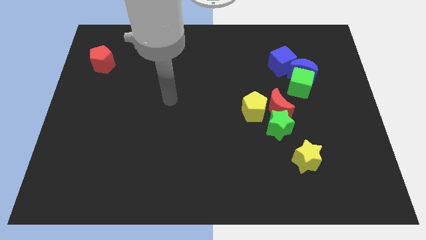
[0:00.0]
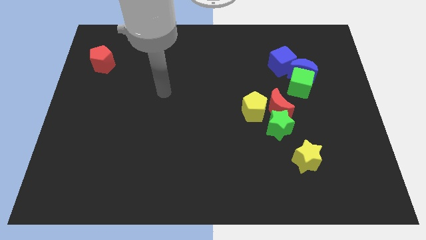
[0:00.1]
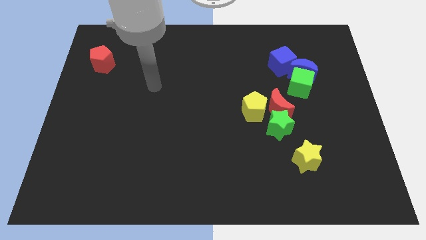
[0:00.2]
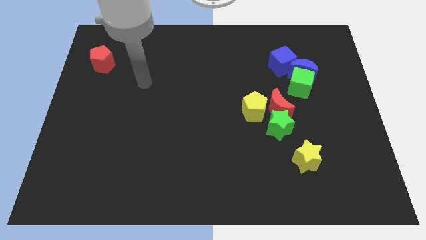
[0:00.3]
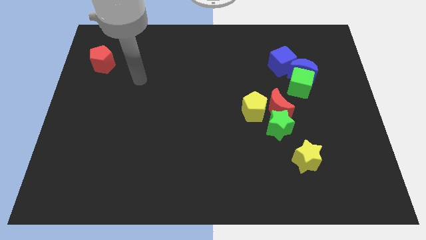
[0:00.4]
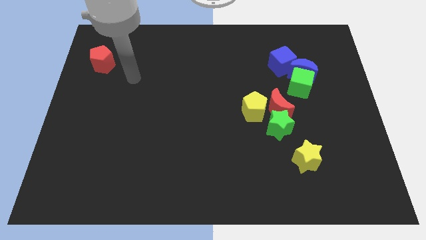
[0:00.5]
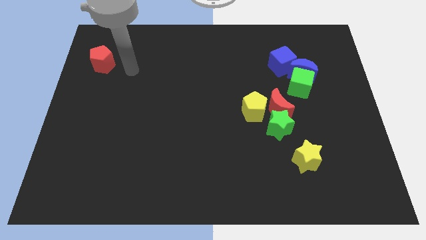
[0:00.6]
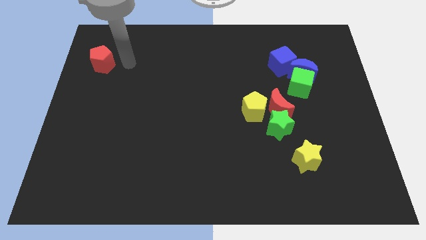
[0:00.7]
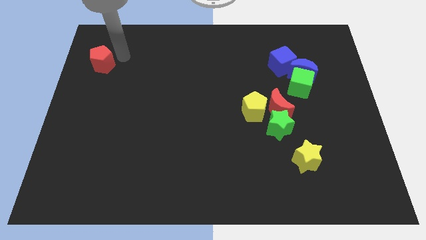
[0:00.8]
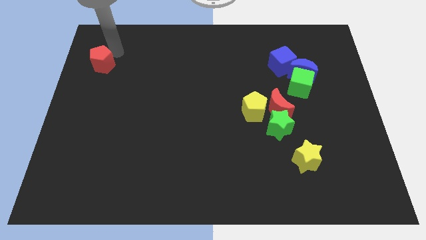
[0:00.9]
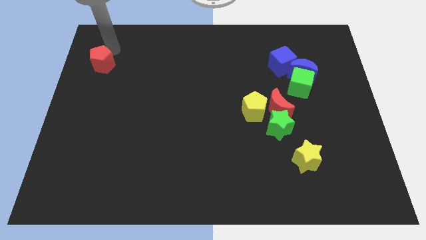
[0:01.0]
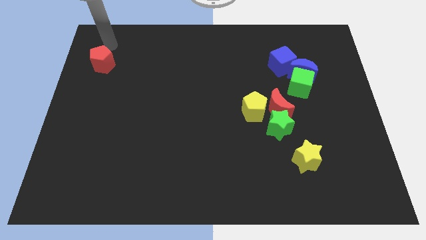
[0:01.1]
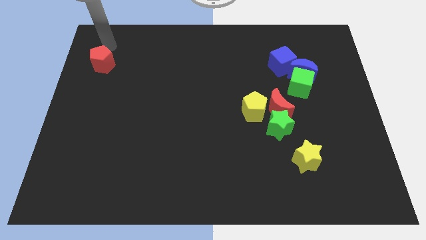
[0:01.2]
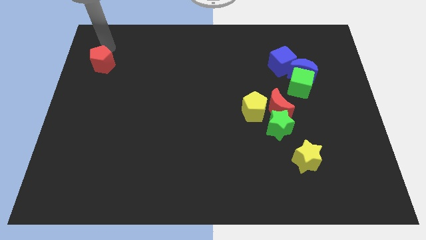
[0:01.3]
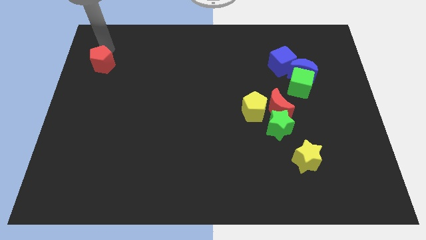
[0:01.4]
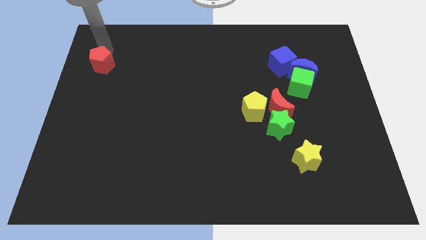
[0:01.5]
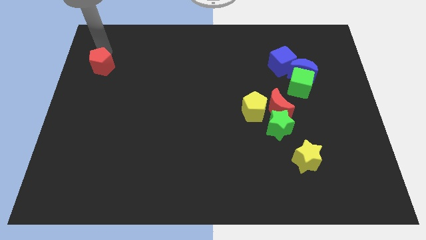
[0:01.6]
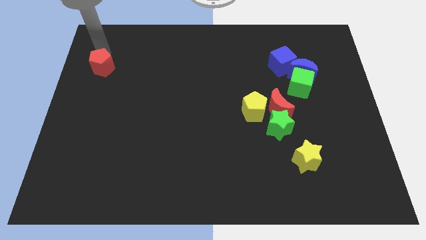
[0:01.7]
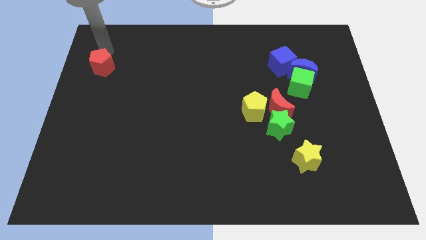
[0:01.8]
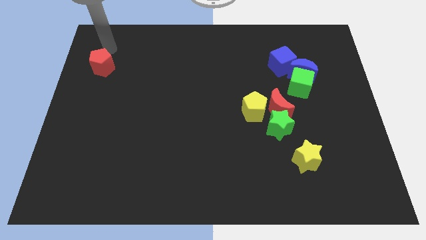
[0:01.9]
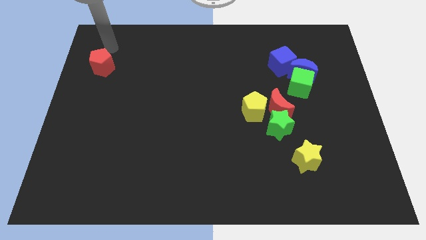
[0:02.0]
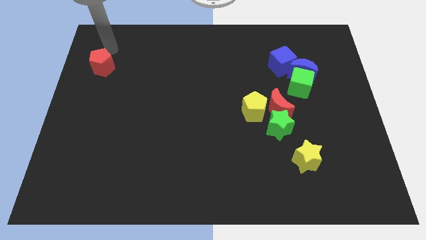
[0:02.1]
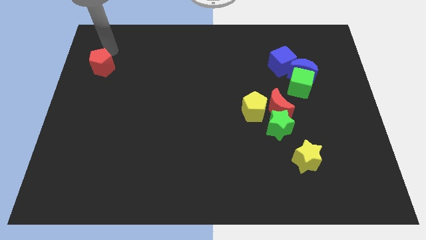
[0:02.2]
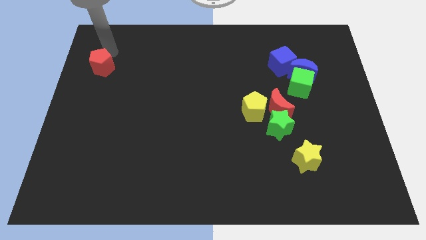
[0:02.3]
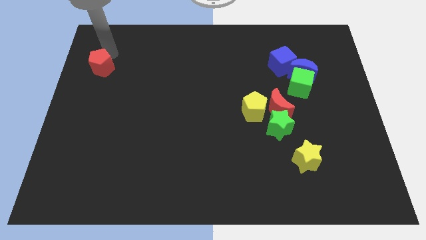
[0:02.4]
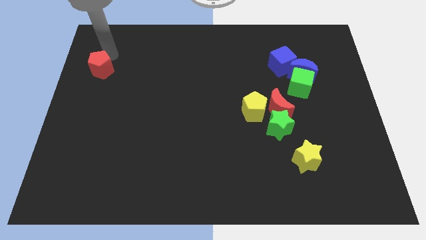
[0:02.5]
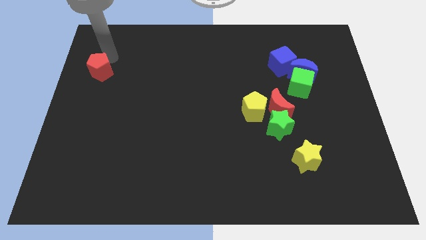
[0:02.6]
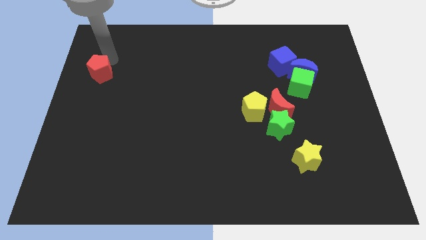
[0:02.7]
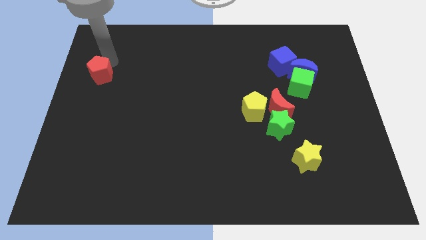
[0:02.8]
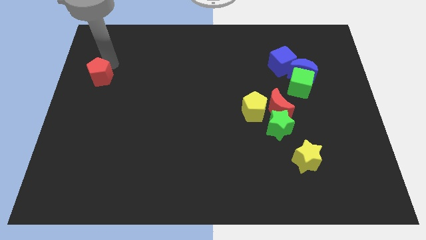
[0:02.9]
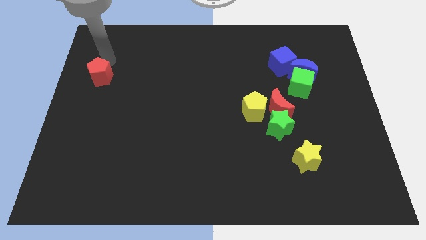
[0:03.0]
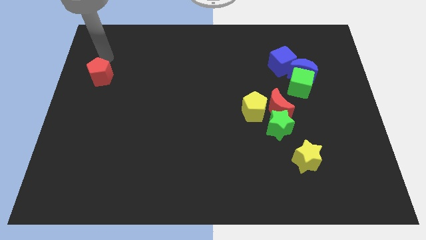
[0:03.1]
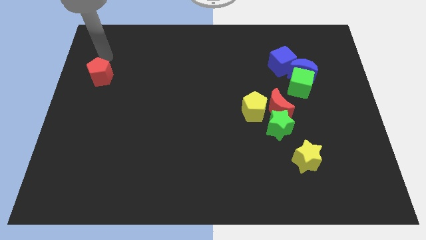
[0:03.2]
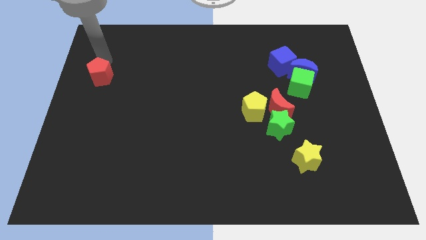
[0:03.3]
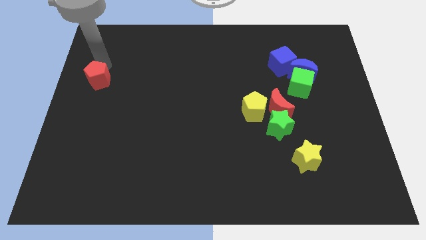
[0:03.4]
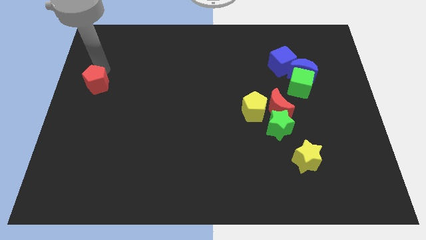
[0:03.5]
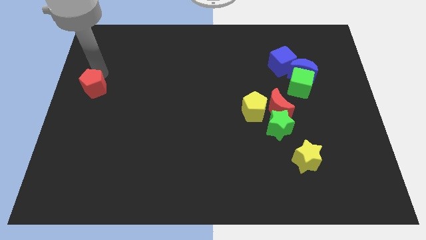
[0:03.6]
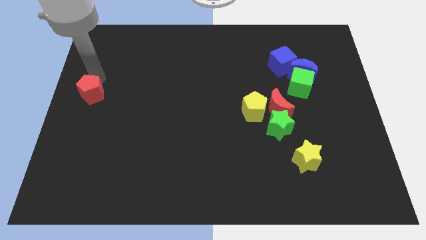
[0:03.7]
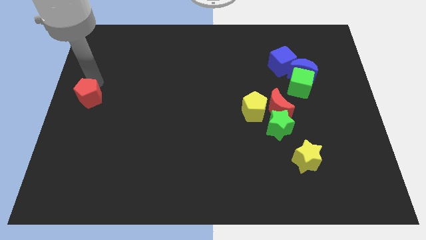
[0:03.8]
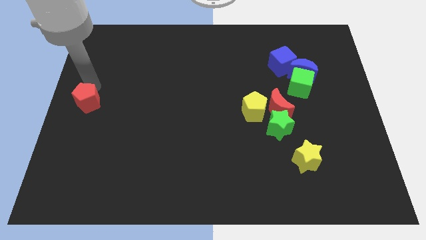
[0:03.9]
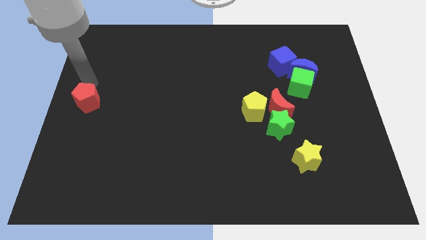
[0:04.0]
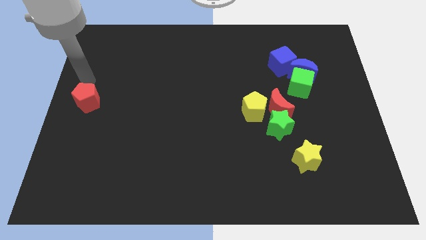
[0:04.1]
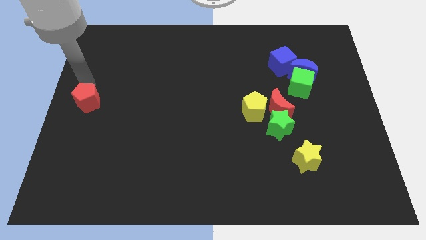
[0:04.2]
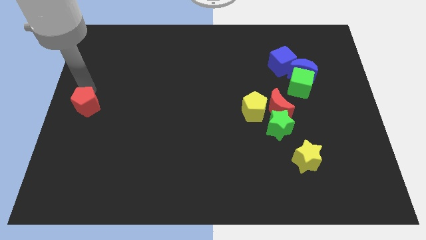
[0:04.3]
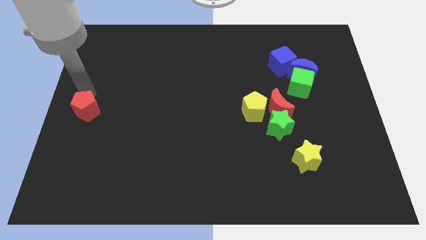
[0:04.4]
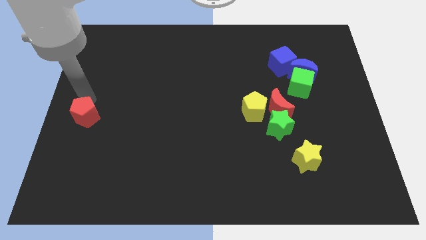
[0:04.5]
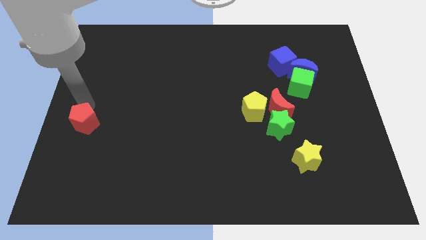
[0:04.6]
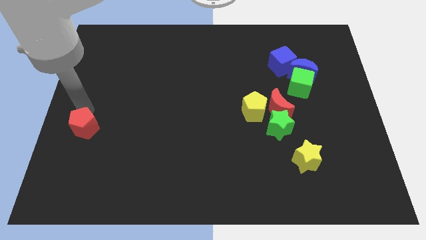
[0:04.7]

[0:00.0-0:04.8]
slide the red pentagon down

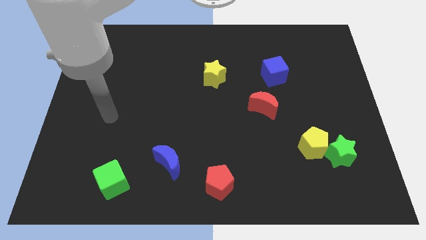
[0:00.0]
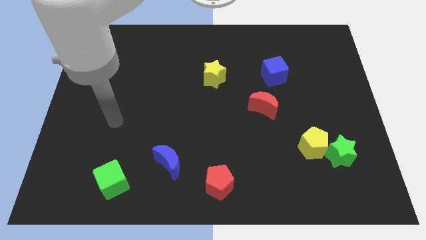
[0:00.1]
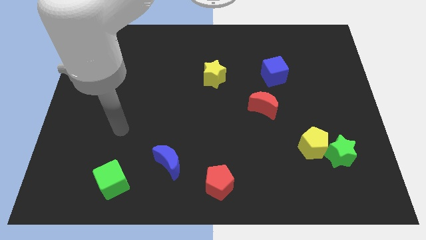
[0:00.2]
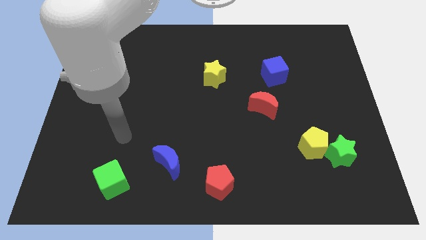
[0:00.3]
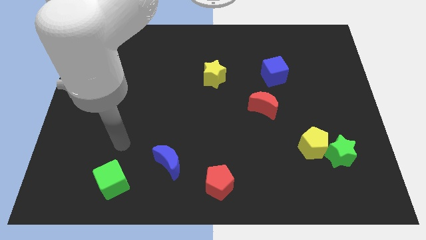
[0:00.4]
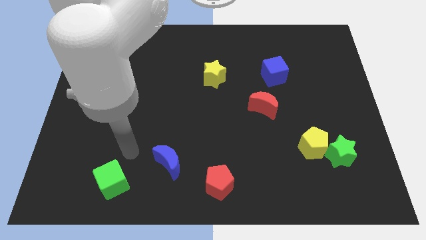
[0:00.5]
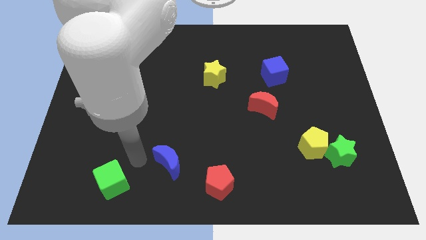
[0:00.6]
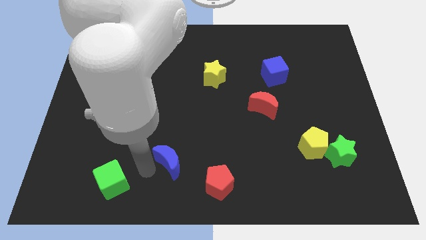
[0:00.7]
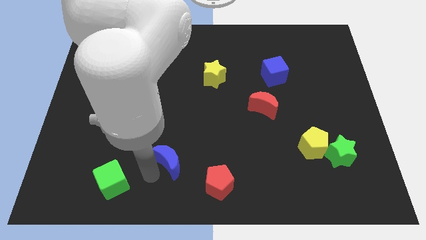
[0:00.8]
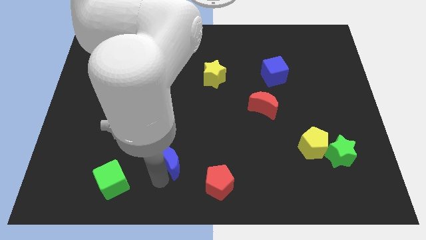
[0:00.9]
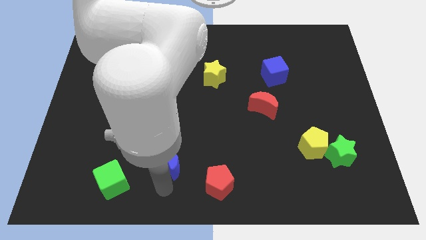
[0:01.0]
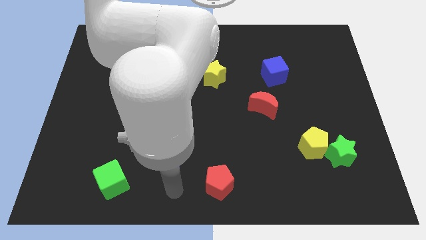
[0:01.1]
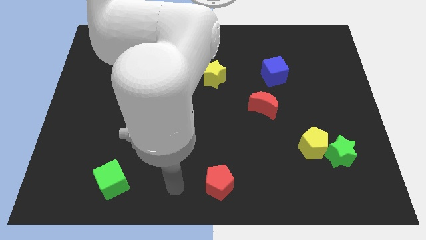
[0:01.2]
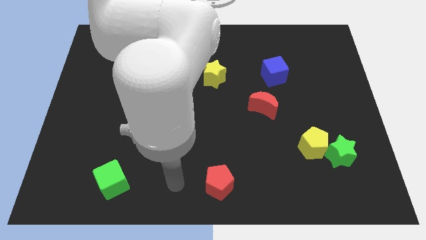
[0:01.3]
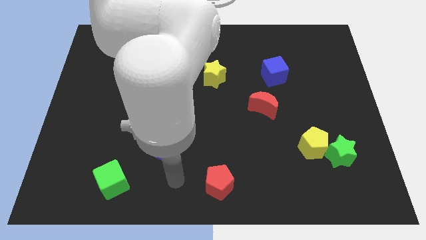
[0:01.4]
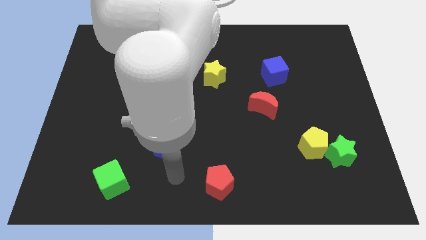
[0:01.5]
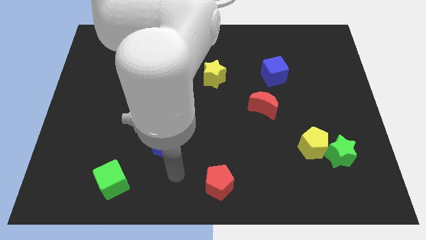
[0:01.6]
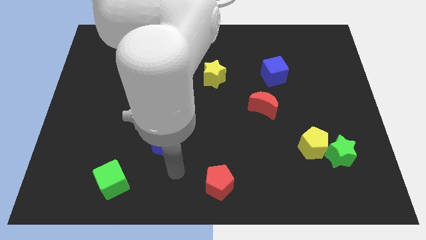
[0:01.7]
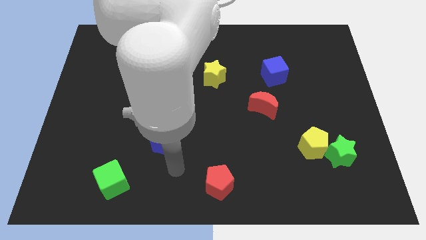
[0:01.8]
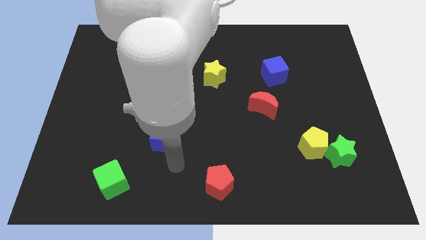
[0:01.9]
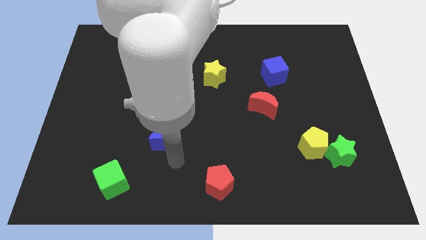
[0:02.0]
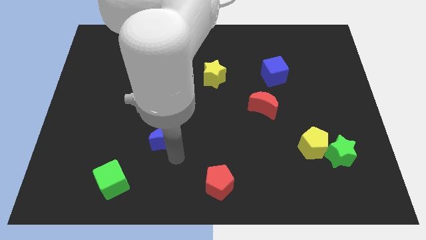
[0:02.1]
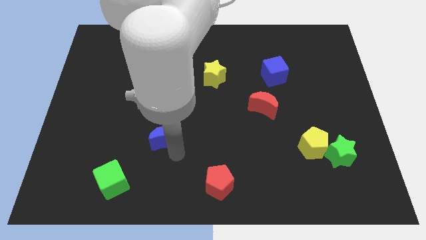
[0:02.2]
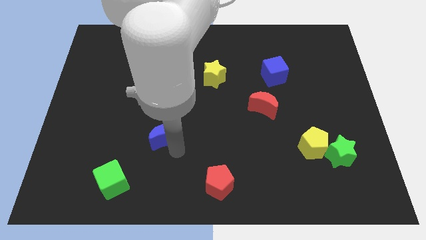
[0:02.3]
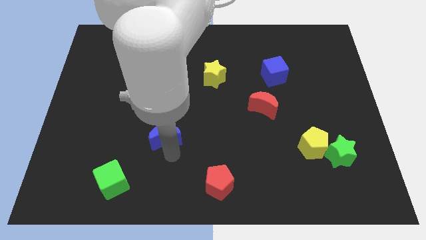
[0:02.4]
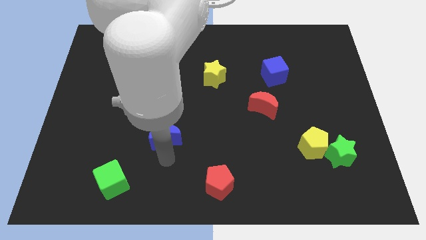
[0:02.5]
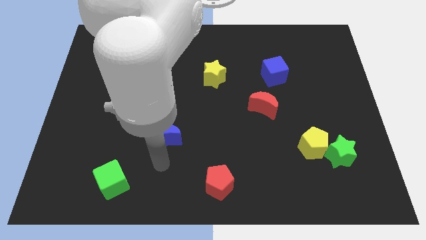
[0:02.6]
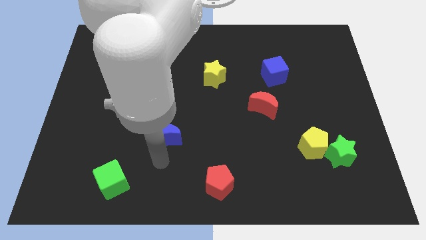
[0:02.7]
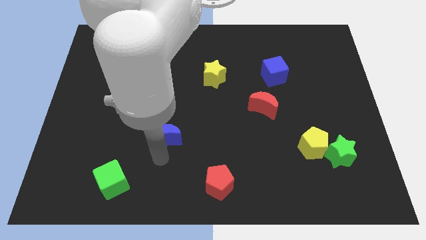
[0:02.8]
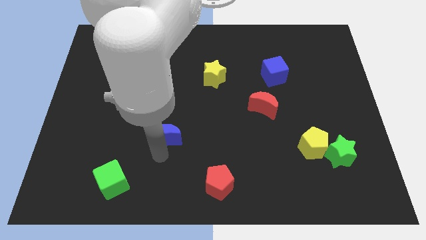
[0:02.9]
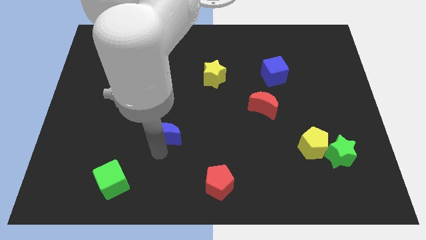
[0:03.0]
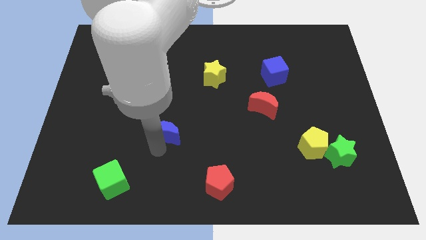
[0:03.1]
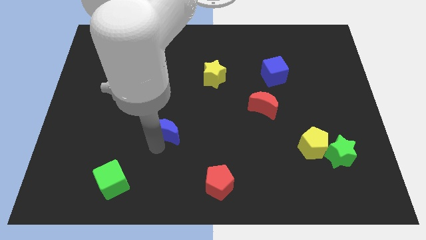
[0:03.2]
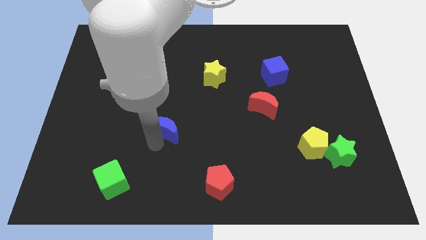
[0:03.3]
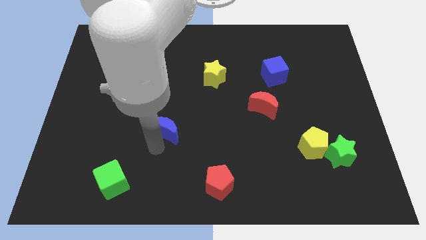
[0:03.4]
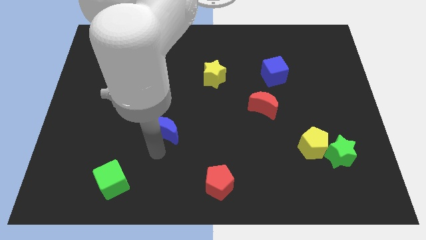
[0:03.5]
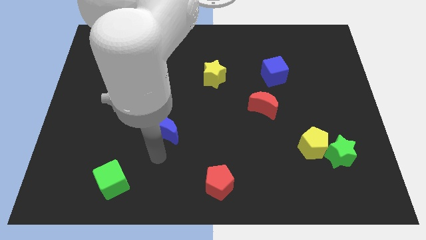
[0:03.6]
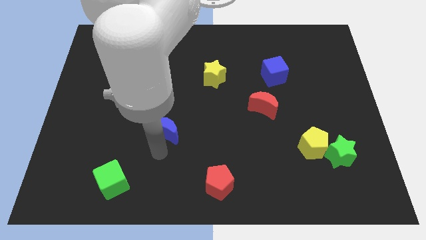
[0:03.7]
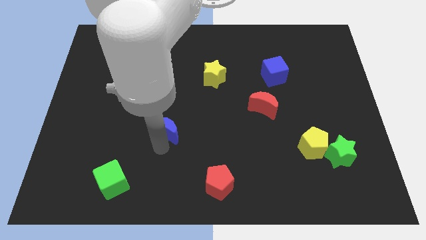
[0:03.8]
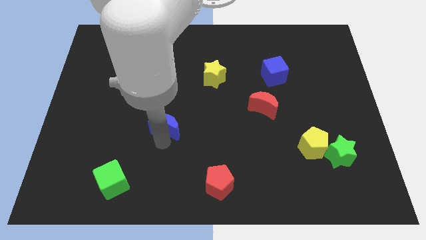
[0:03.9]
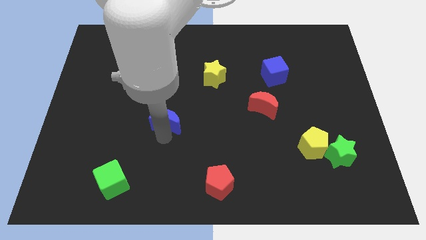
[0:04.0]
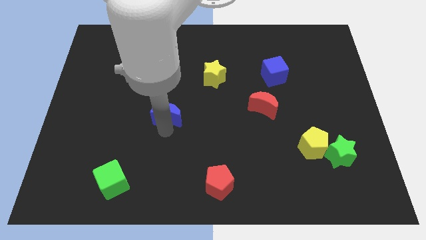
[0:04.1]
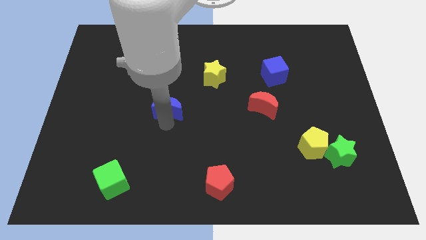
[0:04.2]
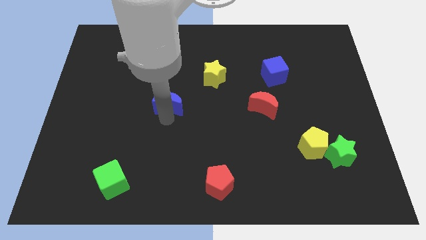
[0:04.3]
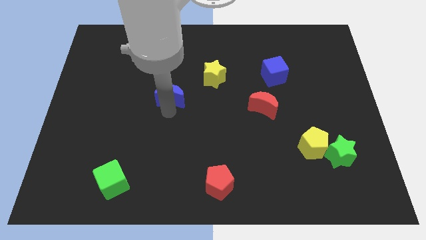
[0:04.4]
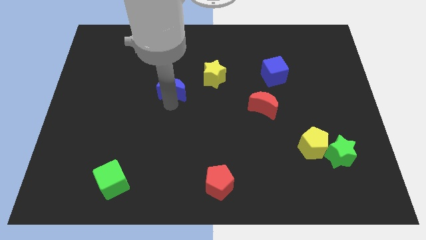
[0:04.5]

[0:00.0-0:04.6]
move the blue moon up
